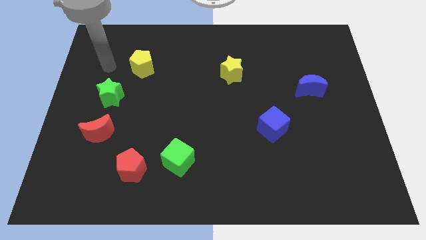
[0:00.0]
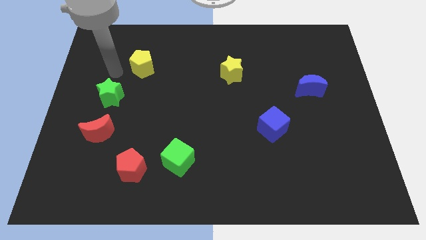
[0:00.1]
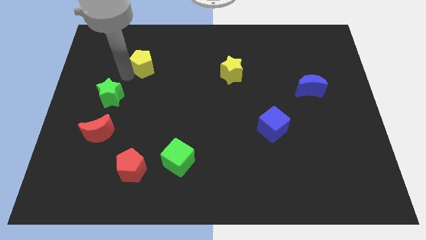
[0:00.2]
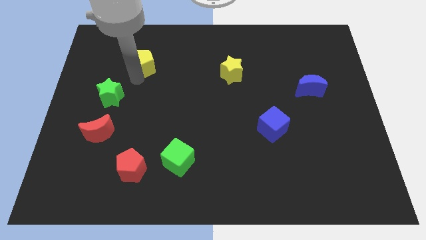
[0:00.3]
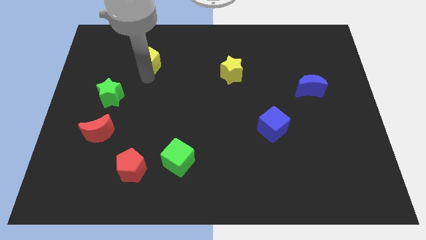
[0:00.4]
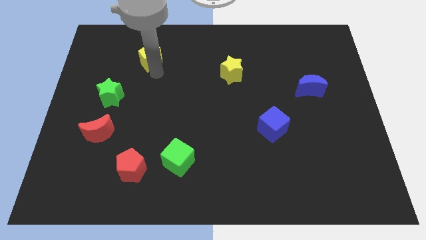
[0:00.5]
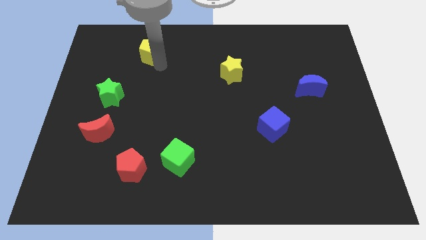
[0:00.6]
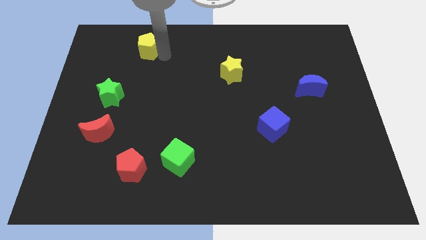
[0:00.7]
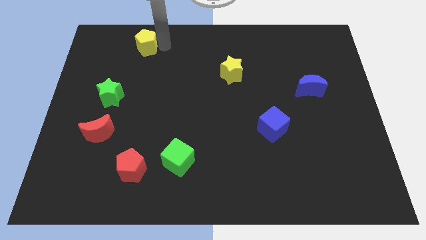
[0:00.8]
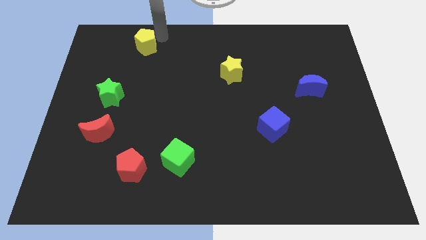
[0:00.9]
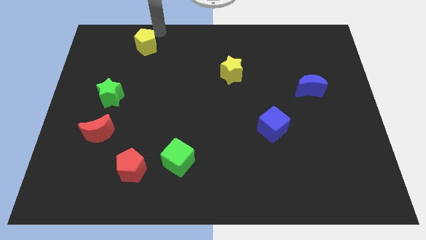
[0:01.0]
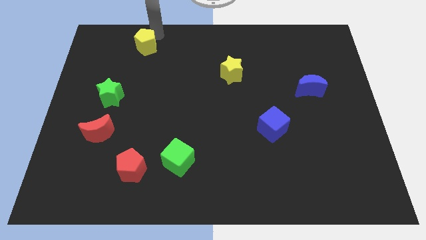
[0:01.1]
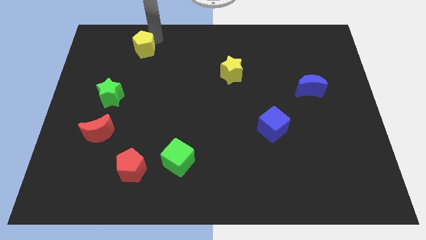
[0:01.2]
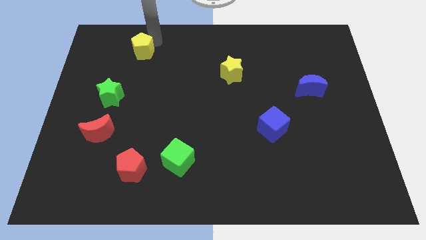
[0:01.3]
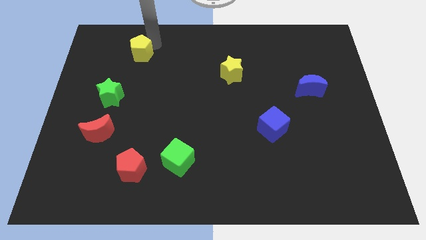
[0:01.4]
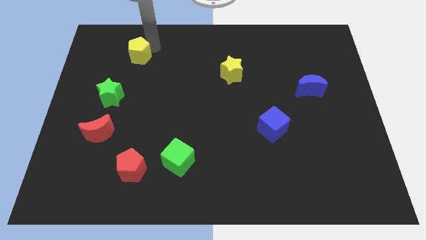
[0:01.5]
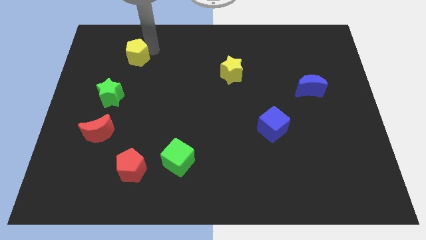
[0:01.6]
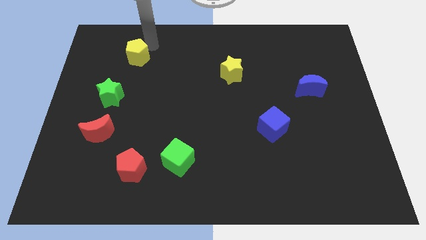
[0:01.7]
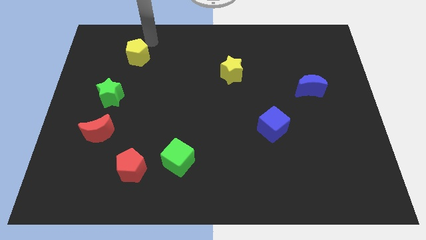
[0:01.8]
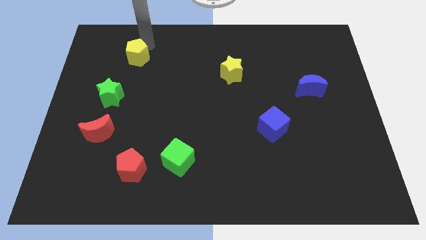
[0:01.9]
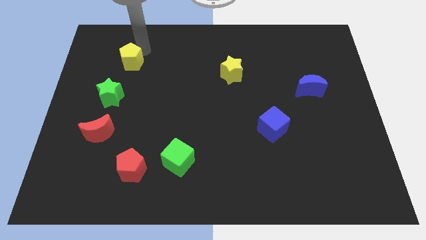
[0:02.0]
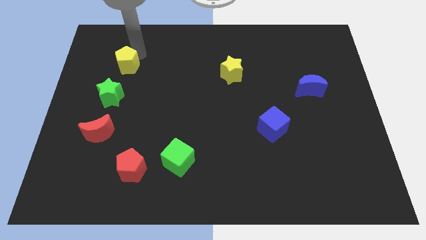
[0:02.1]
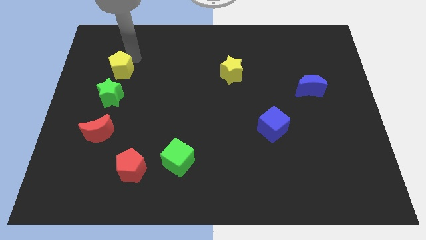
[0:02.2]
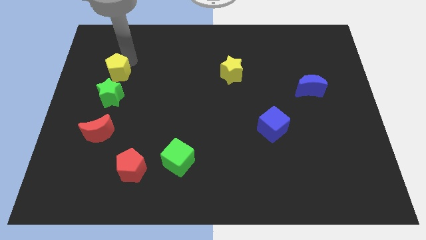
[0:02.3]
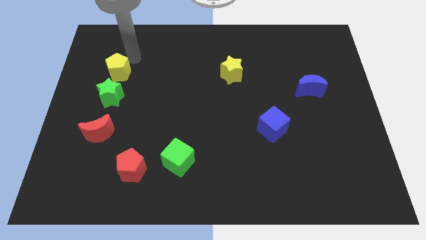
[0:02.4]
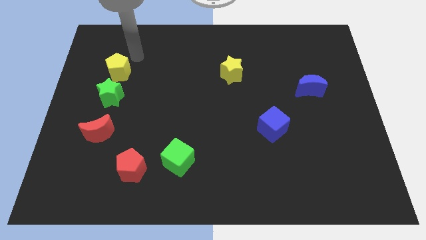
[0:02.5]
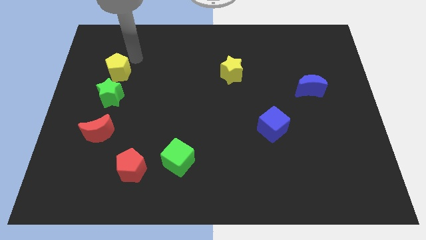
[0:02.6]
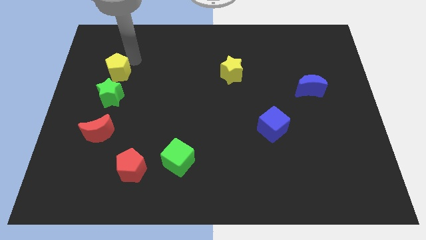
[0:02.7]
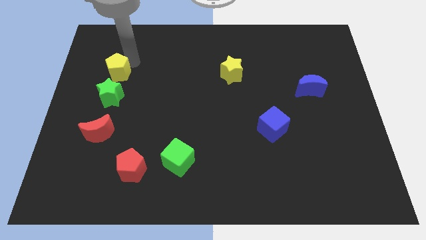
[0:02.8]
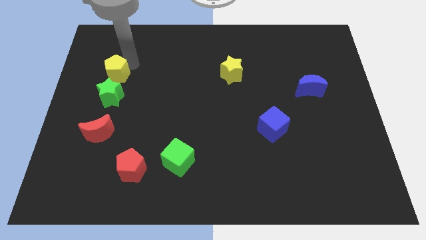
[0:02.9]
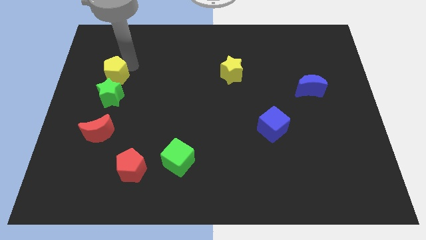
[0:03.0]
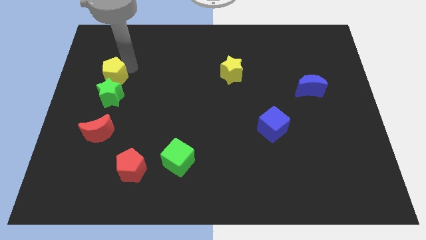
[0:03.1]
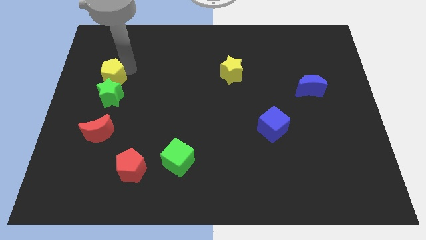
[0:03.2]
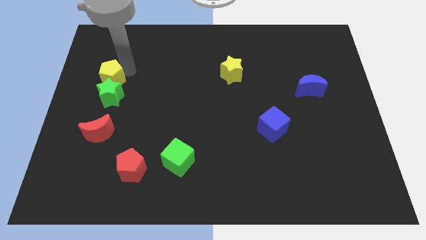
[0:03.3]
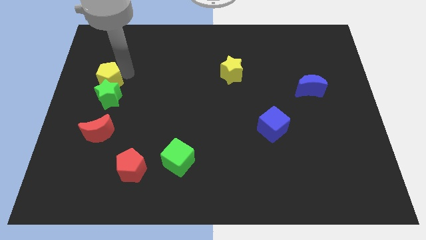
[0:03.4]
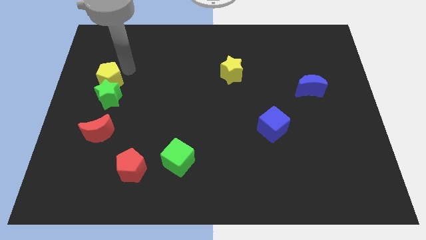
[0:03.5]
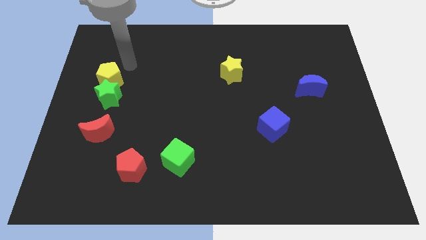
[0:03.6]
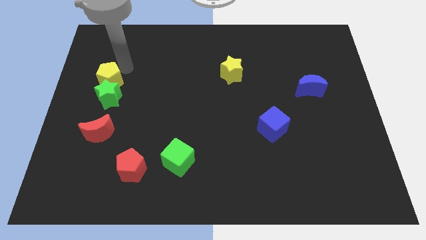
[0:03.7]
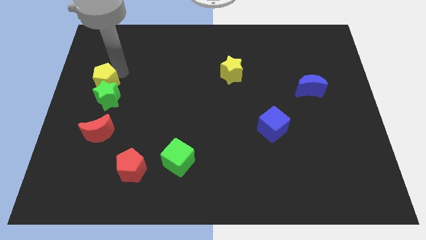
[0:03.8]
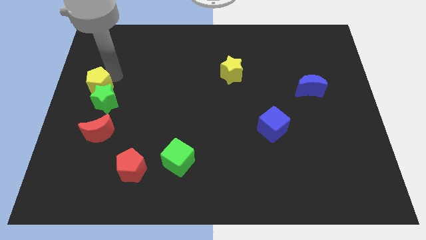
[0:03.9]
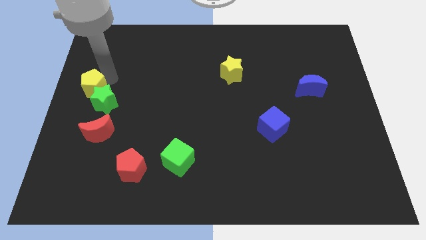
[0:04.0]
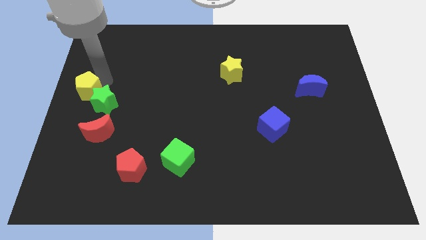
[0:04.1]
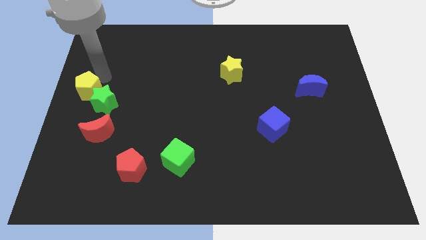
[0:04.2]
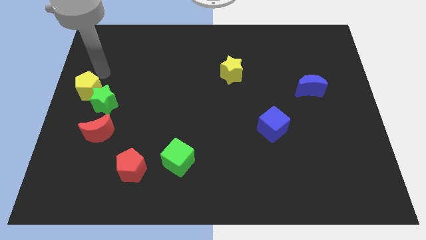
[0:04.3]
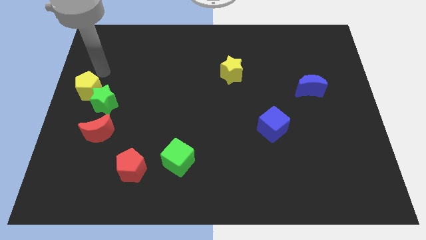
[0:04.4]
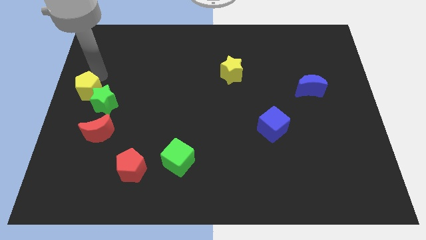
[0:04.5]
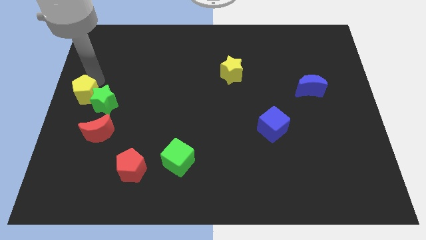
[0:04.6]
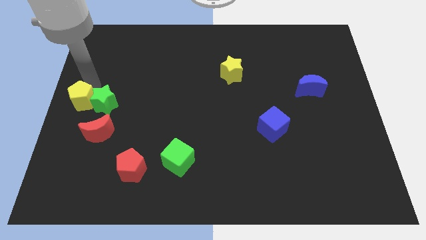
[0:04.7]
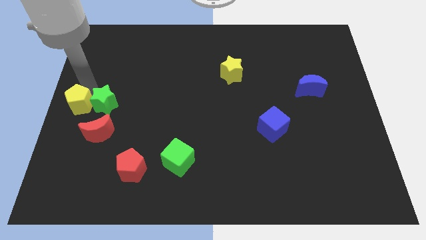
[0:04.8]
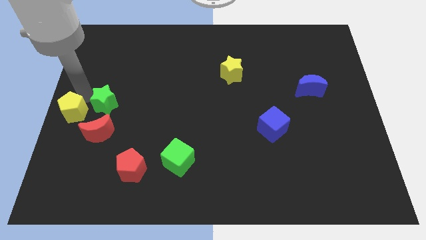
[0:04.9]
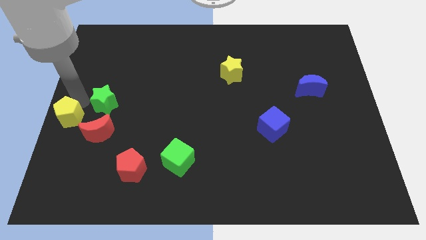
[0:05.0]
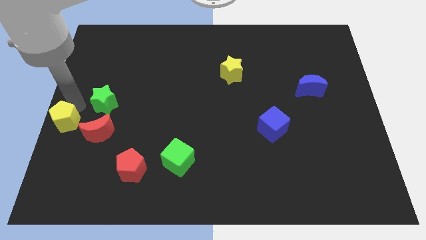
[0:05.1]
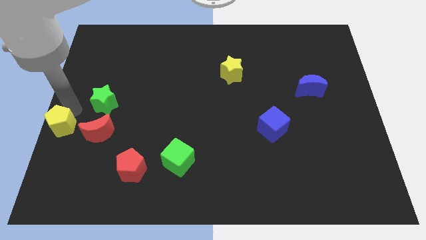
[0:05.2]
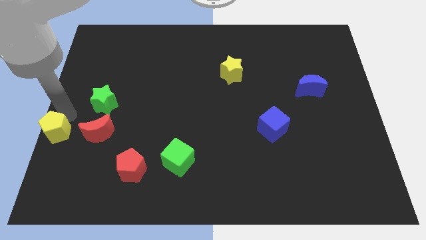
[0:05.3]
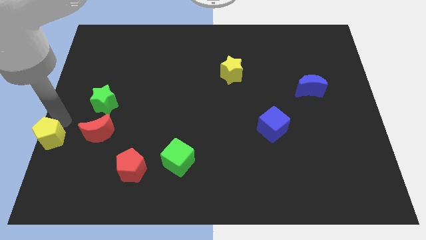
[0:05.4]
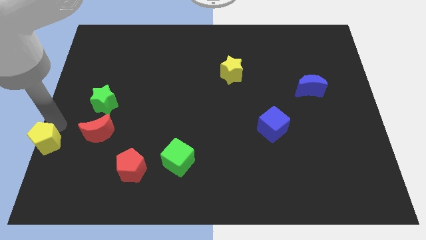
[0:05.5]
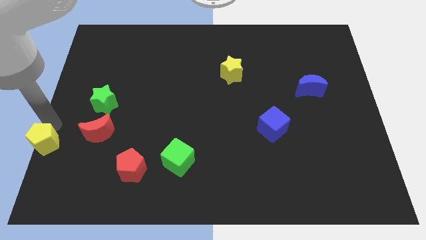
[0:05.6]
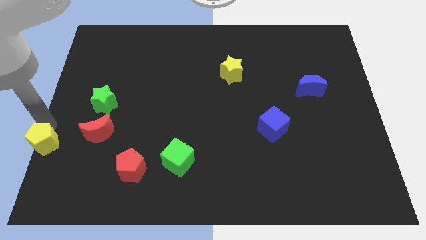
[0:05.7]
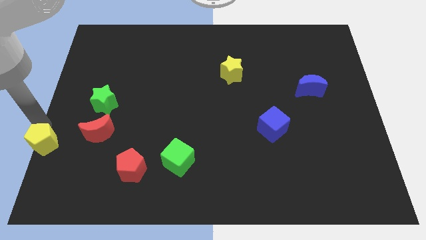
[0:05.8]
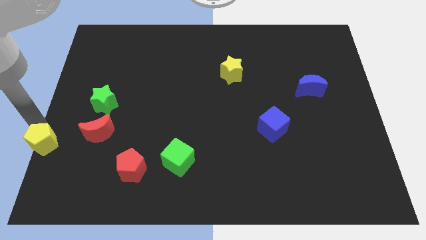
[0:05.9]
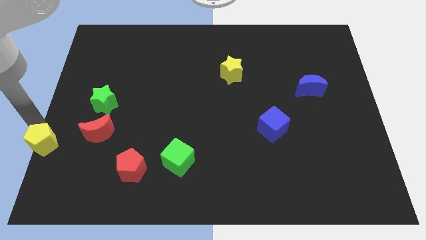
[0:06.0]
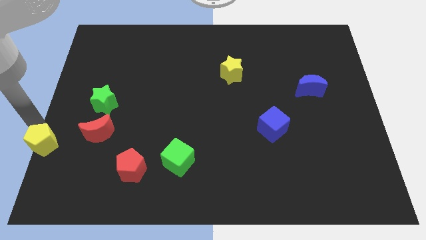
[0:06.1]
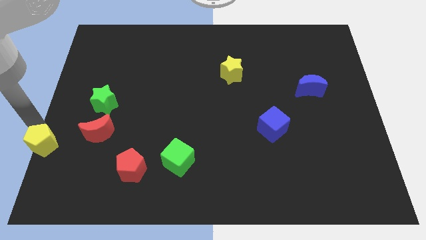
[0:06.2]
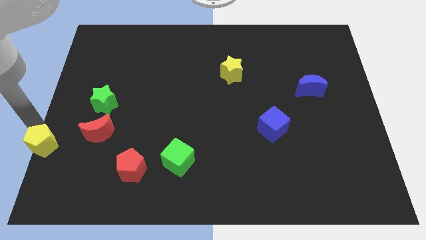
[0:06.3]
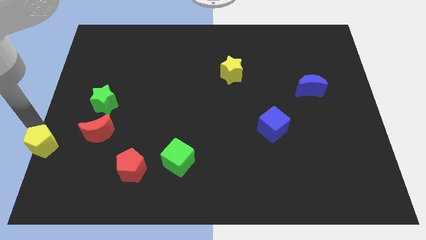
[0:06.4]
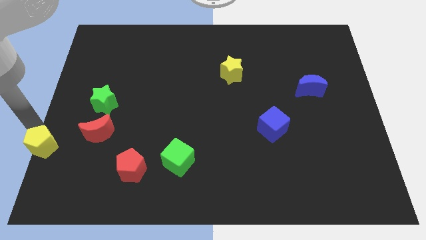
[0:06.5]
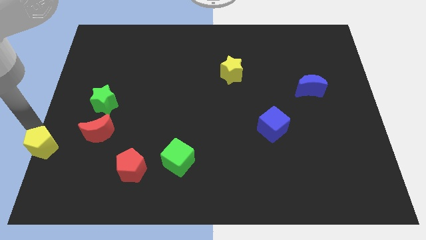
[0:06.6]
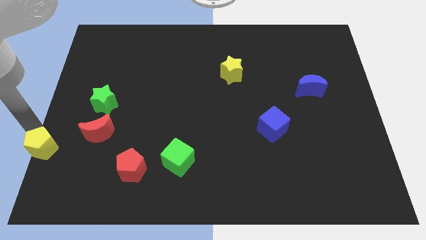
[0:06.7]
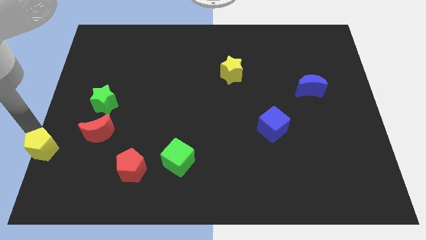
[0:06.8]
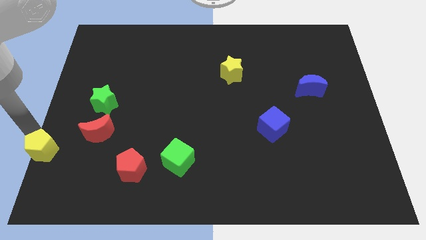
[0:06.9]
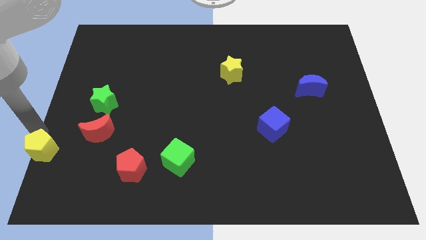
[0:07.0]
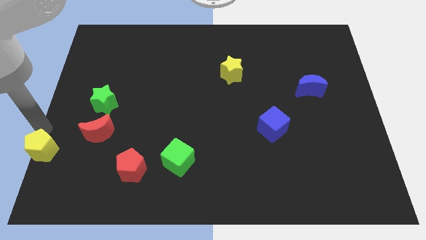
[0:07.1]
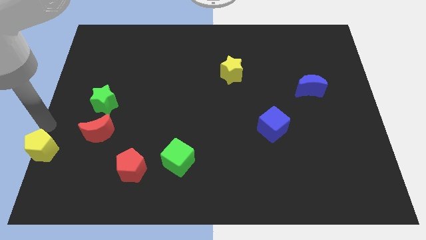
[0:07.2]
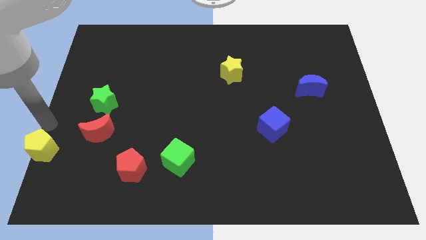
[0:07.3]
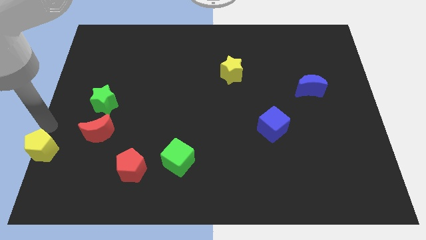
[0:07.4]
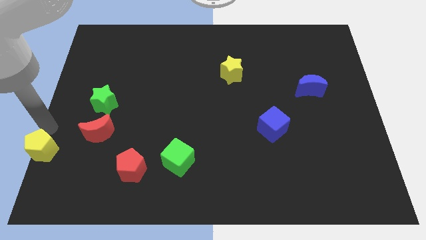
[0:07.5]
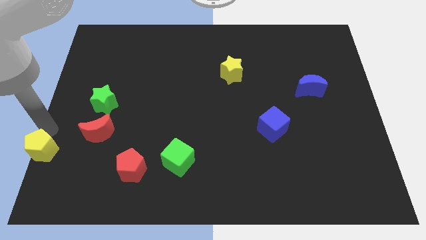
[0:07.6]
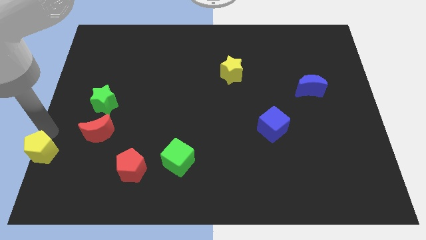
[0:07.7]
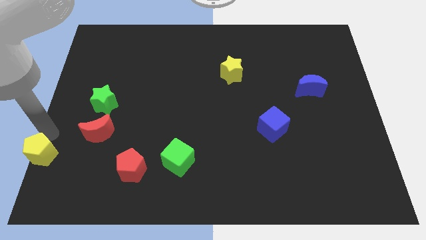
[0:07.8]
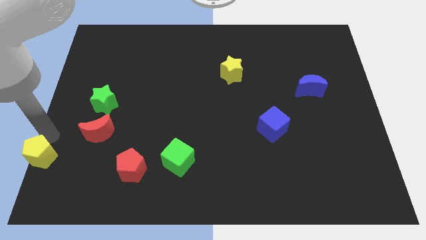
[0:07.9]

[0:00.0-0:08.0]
move the yellow pentagon to the bottom left corner
